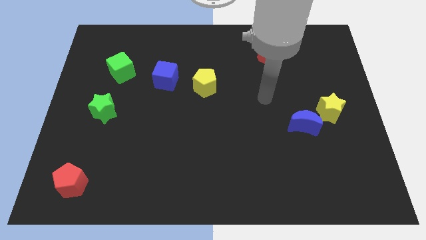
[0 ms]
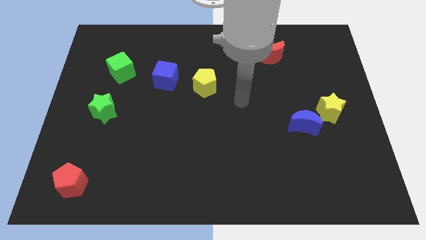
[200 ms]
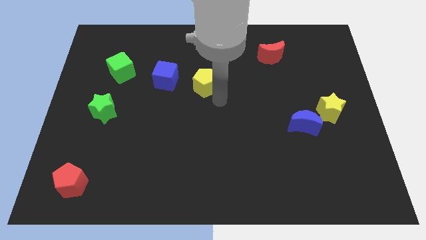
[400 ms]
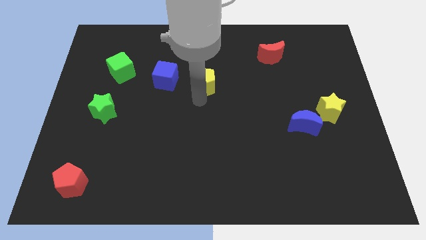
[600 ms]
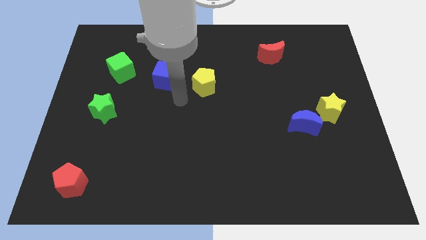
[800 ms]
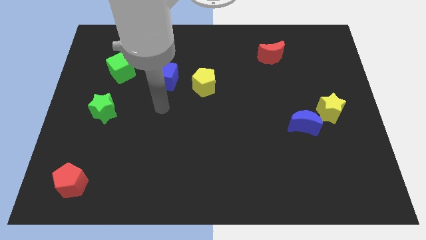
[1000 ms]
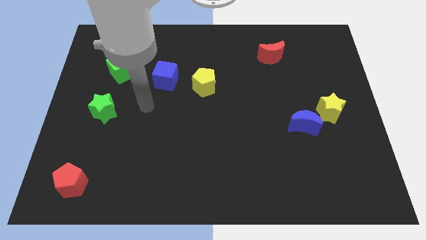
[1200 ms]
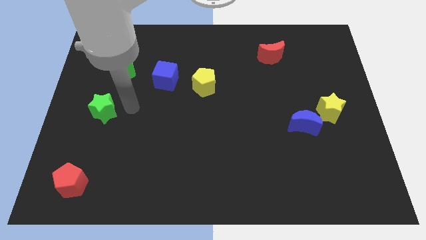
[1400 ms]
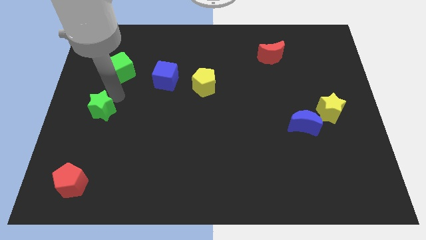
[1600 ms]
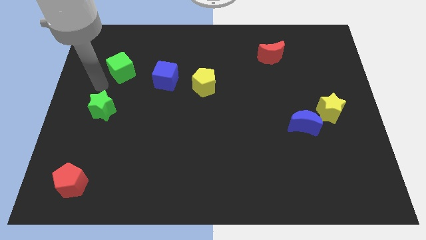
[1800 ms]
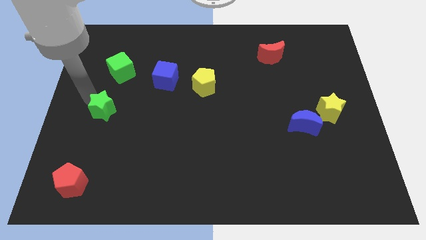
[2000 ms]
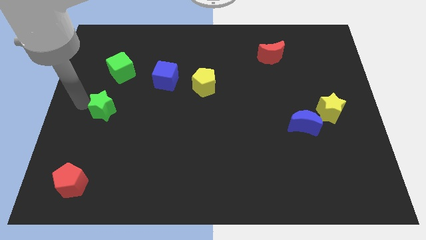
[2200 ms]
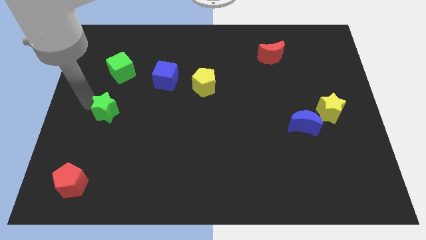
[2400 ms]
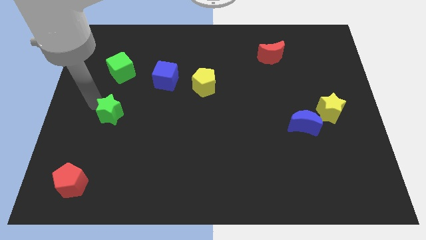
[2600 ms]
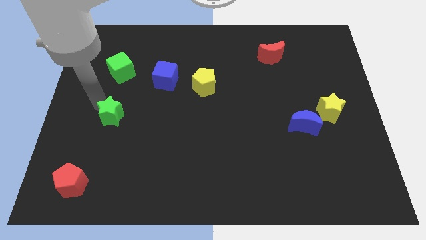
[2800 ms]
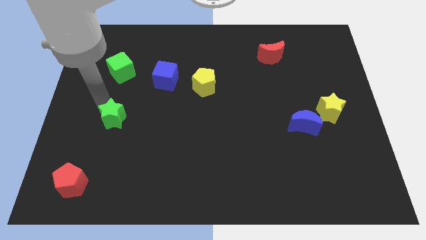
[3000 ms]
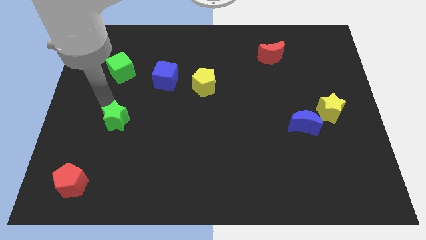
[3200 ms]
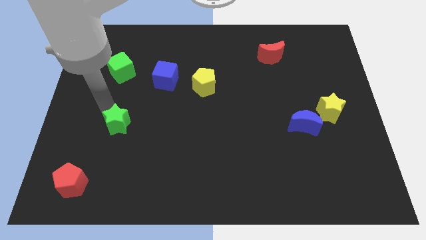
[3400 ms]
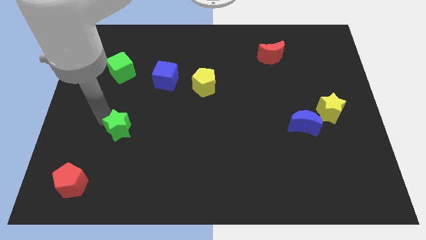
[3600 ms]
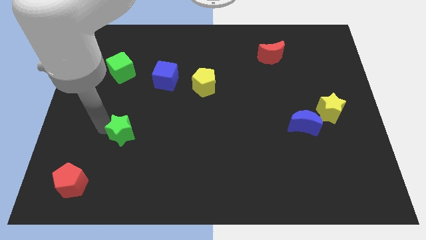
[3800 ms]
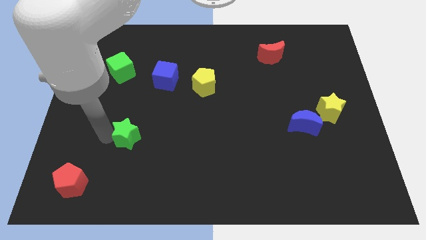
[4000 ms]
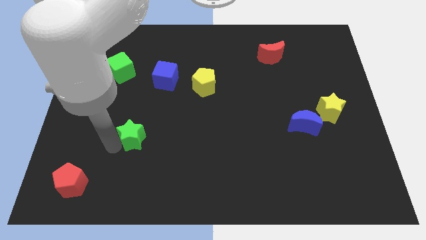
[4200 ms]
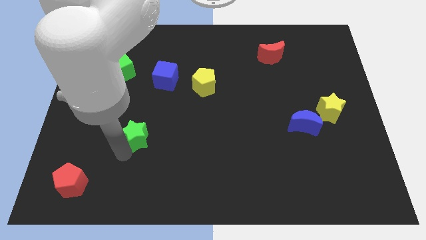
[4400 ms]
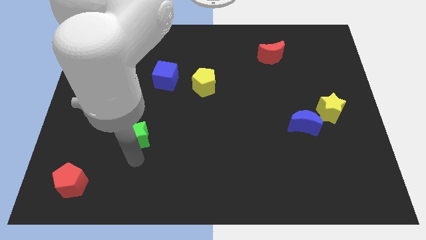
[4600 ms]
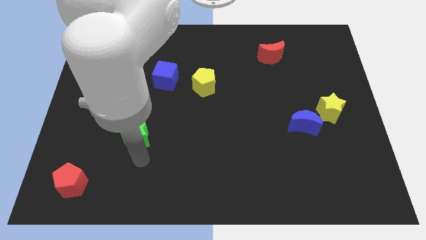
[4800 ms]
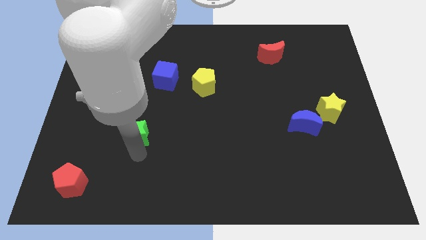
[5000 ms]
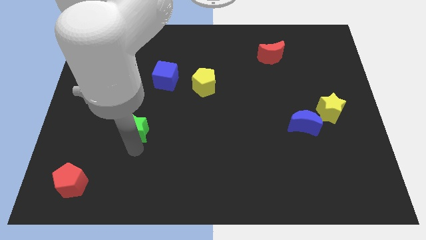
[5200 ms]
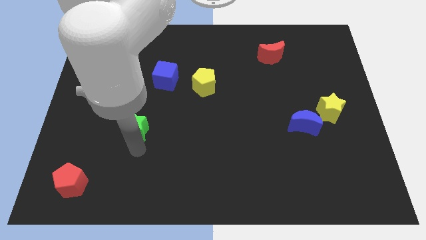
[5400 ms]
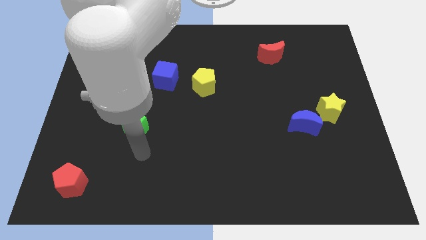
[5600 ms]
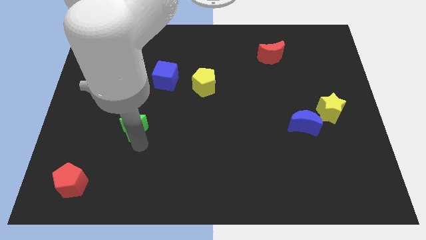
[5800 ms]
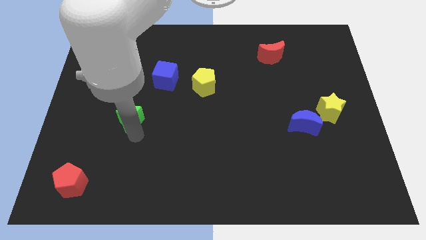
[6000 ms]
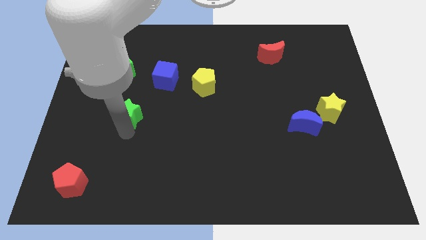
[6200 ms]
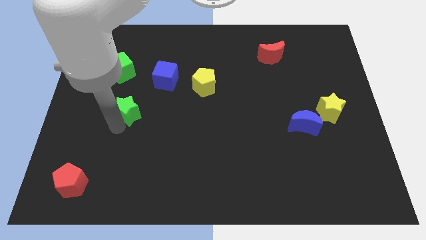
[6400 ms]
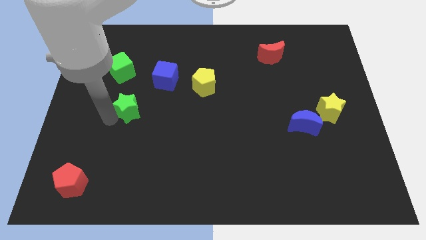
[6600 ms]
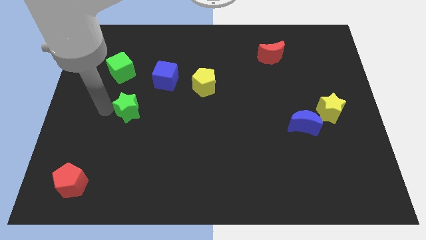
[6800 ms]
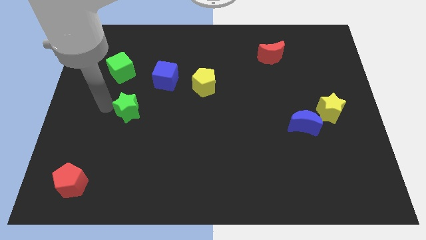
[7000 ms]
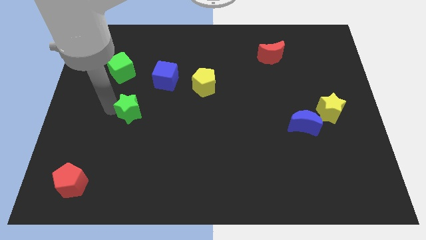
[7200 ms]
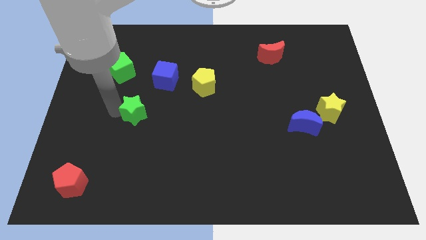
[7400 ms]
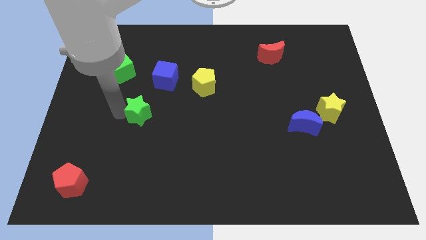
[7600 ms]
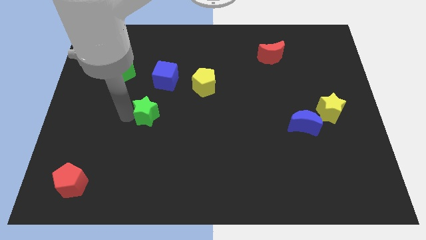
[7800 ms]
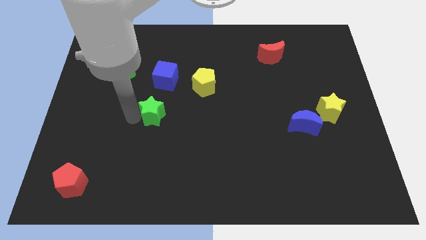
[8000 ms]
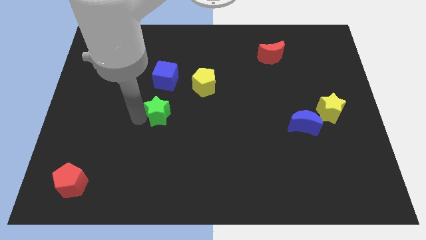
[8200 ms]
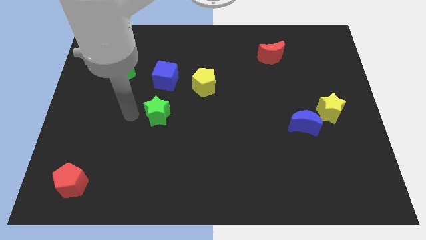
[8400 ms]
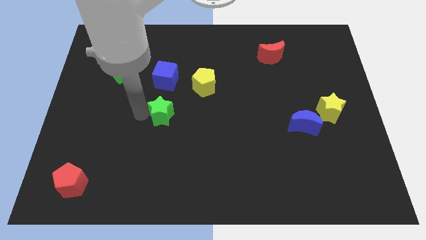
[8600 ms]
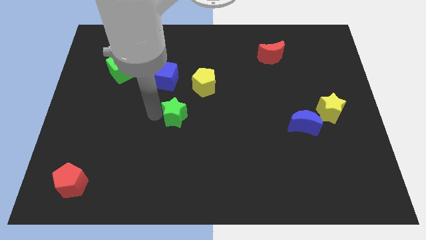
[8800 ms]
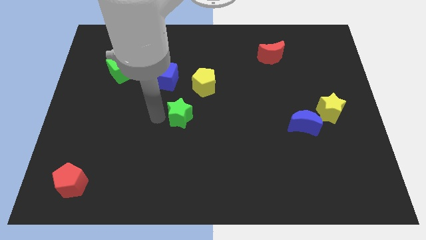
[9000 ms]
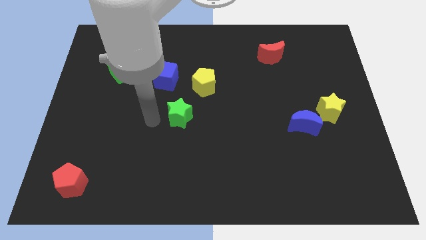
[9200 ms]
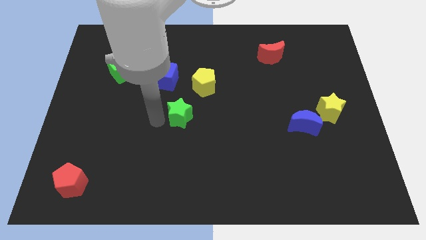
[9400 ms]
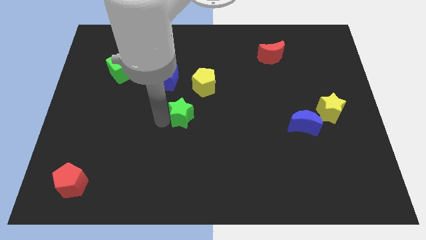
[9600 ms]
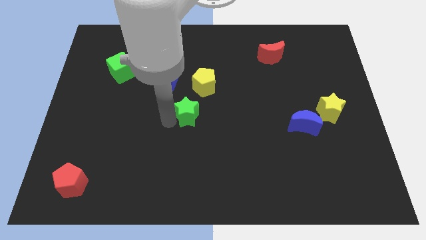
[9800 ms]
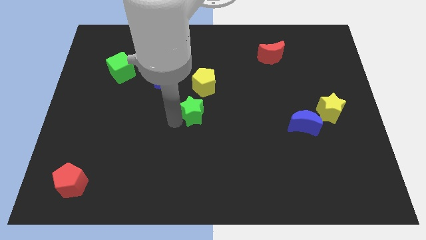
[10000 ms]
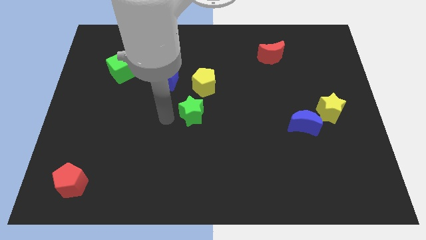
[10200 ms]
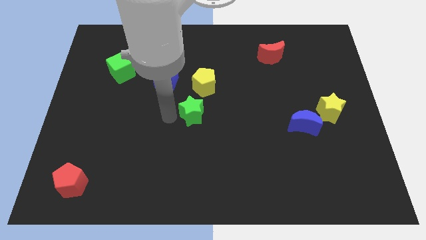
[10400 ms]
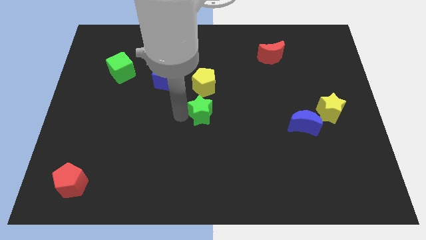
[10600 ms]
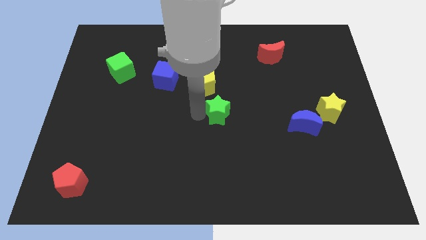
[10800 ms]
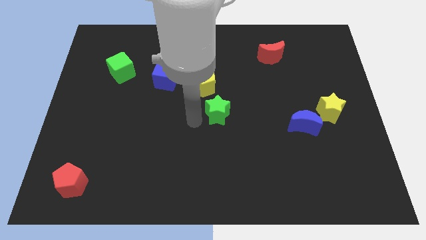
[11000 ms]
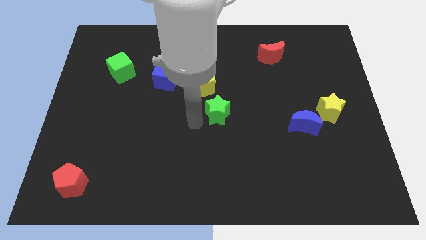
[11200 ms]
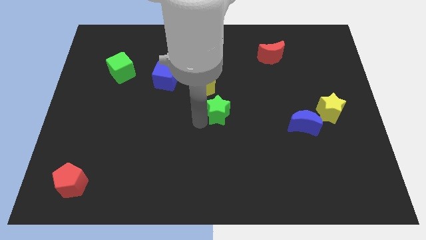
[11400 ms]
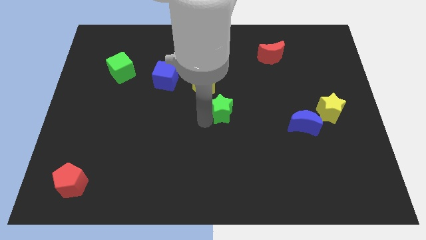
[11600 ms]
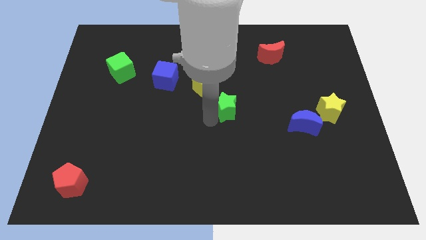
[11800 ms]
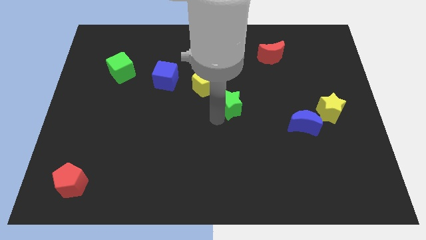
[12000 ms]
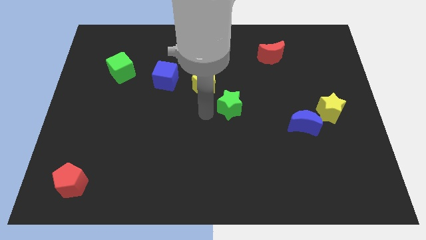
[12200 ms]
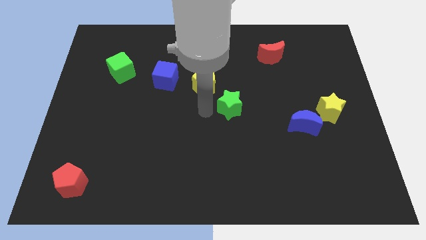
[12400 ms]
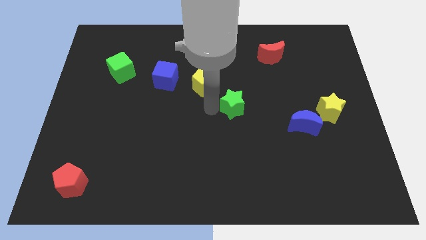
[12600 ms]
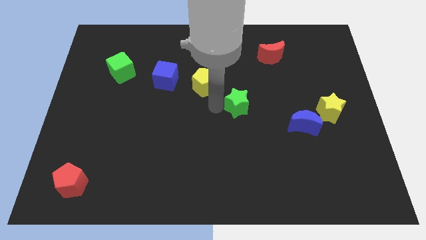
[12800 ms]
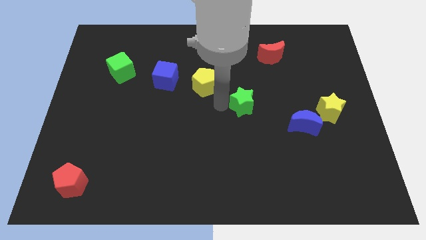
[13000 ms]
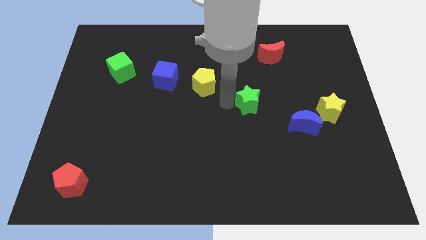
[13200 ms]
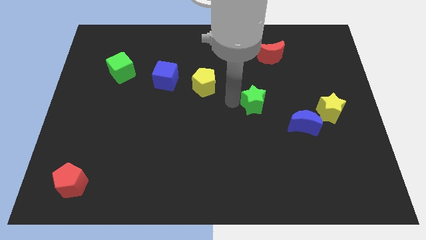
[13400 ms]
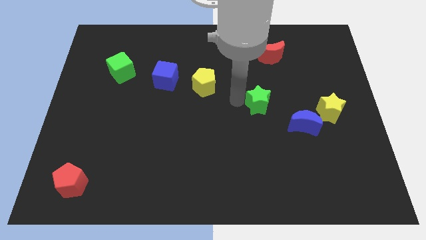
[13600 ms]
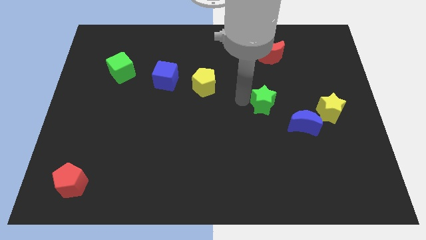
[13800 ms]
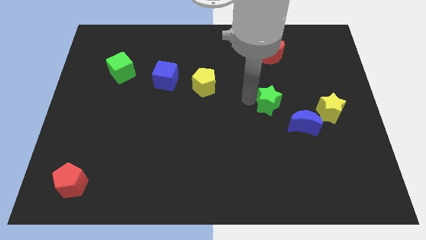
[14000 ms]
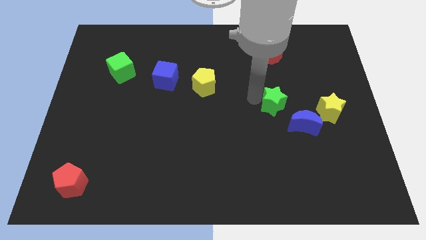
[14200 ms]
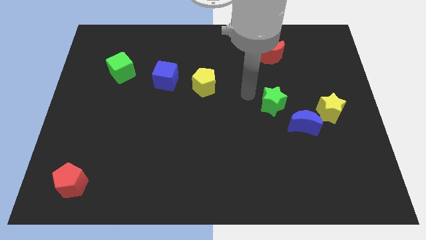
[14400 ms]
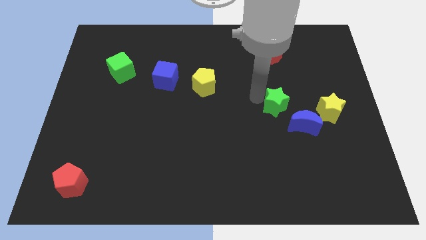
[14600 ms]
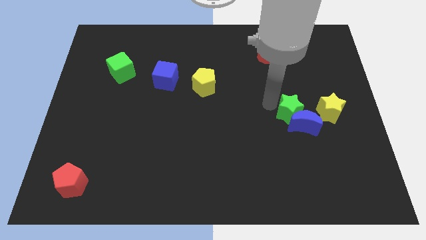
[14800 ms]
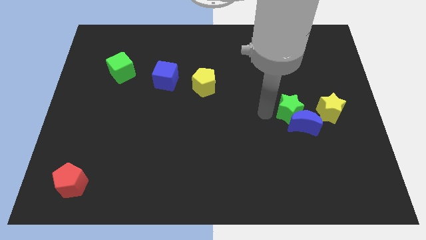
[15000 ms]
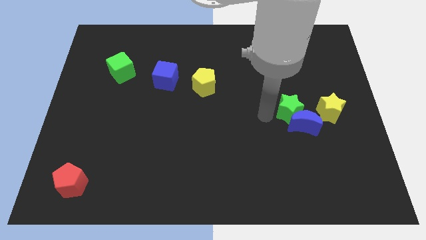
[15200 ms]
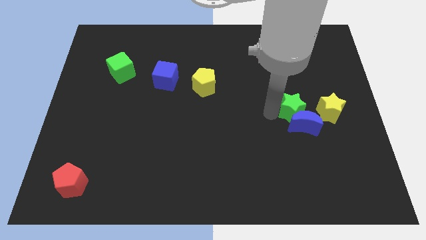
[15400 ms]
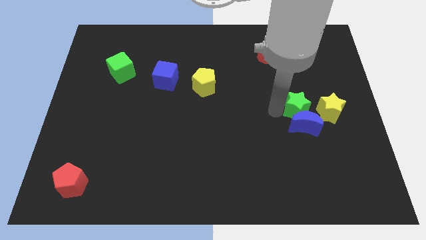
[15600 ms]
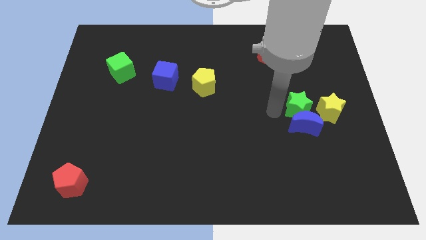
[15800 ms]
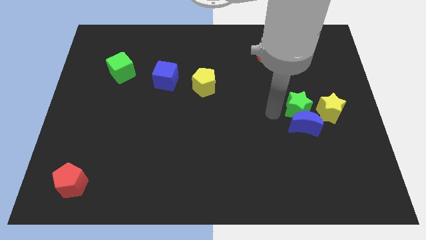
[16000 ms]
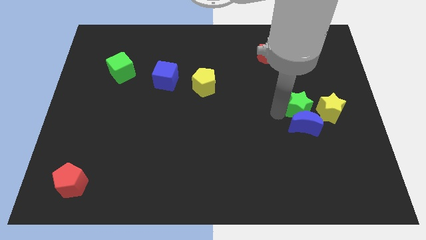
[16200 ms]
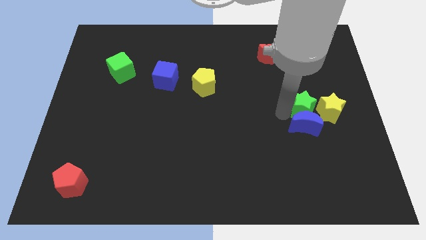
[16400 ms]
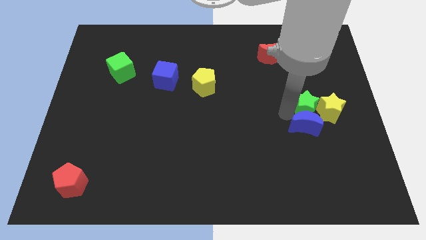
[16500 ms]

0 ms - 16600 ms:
move the green star next to the yellow star
